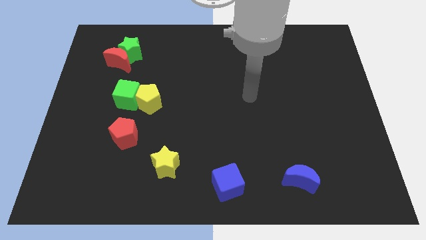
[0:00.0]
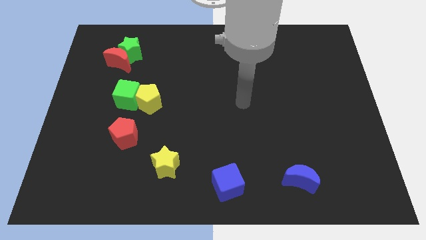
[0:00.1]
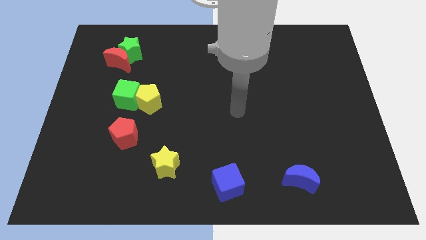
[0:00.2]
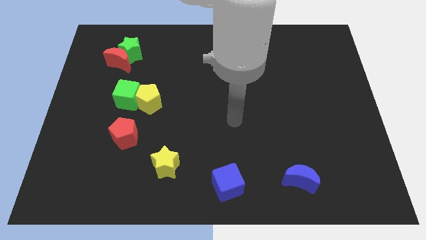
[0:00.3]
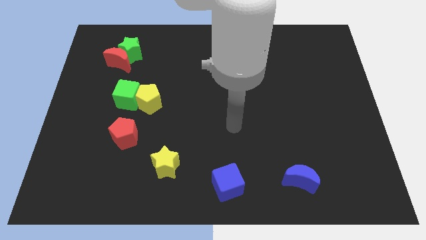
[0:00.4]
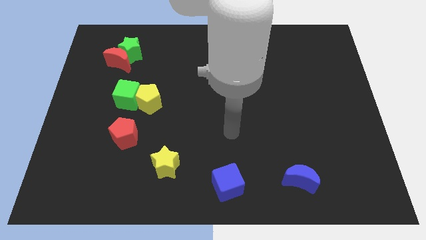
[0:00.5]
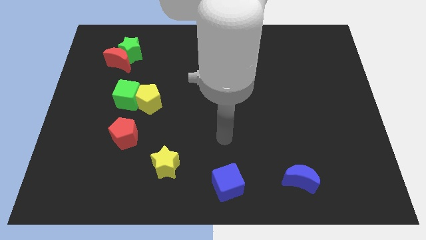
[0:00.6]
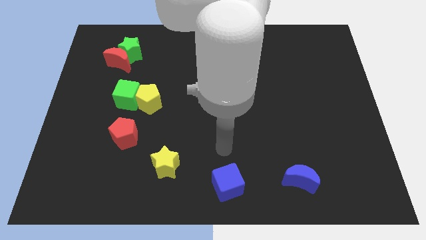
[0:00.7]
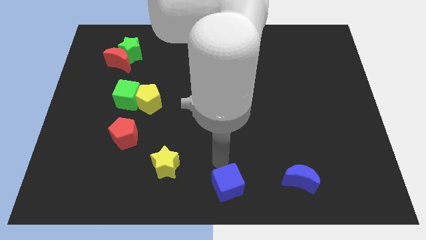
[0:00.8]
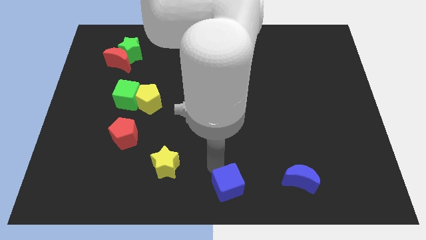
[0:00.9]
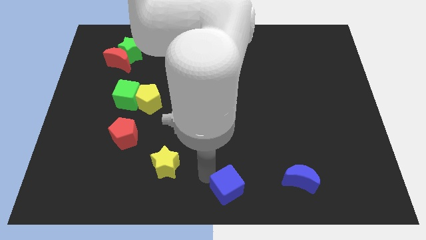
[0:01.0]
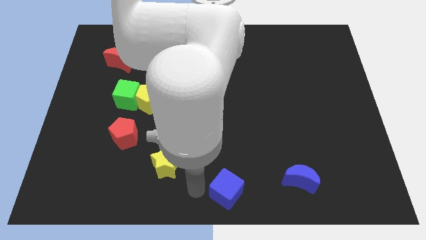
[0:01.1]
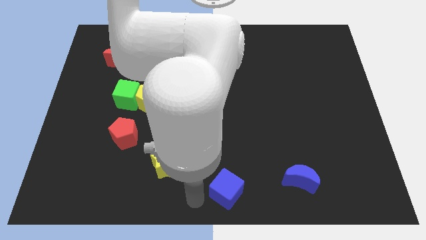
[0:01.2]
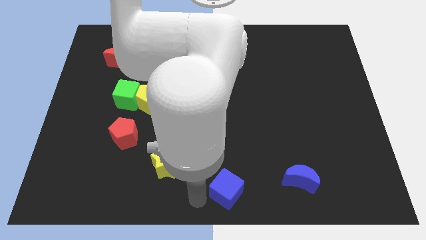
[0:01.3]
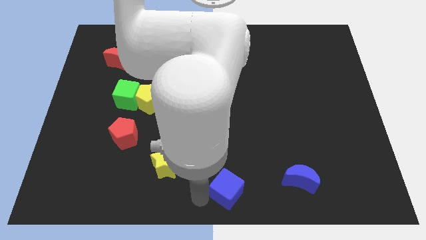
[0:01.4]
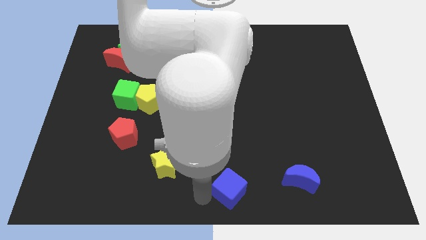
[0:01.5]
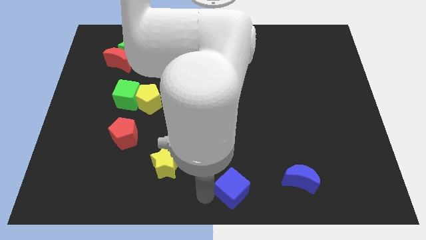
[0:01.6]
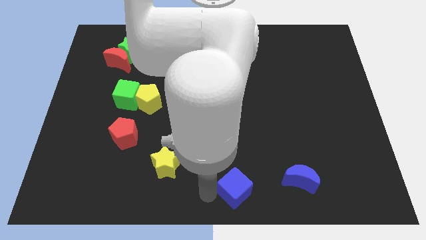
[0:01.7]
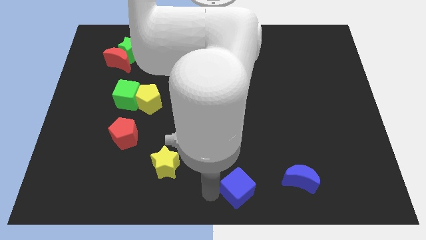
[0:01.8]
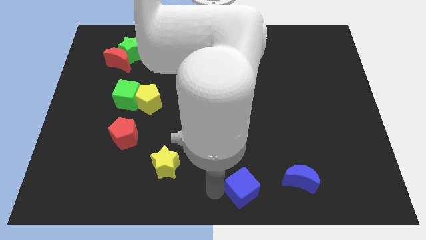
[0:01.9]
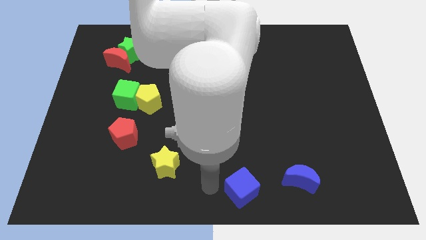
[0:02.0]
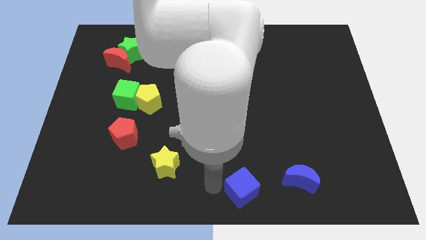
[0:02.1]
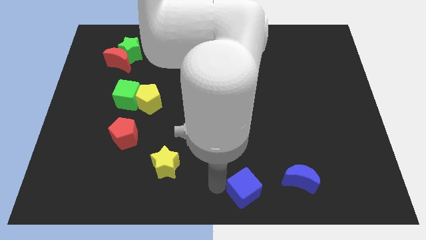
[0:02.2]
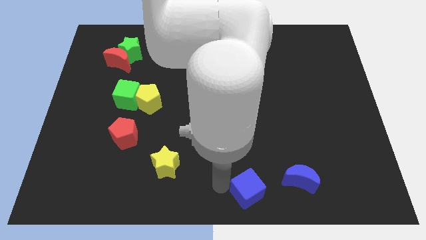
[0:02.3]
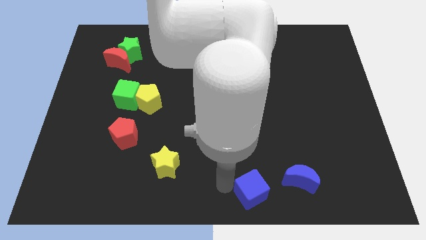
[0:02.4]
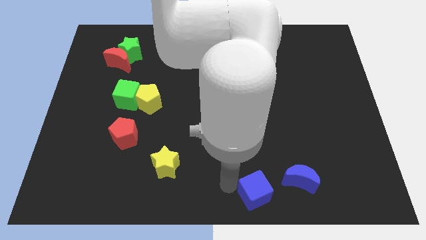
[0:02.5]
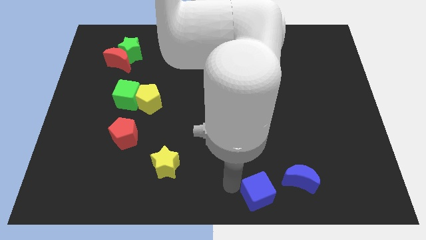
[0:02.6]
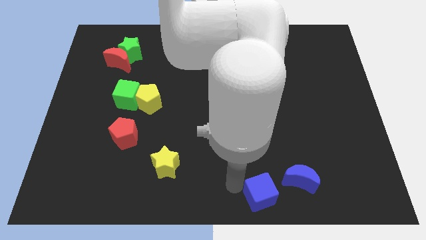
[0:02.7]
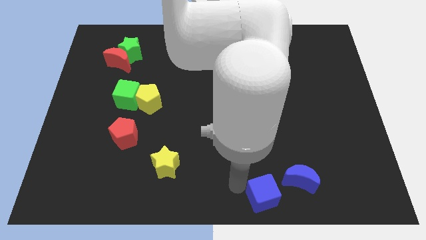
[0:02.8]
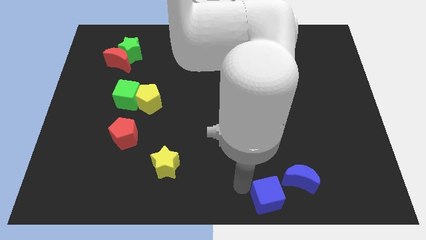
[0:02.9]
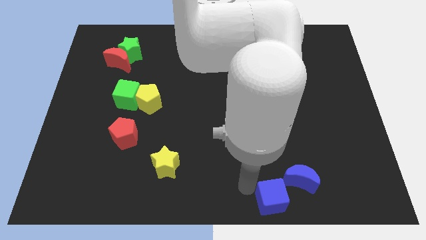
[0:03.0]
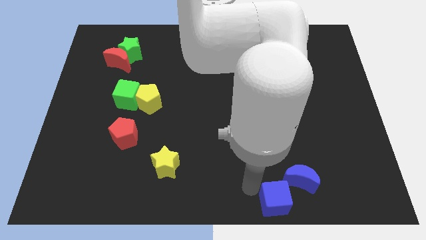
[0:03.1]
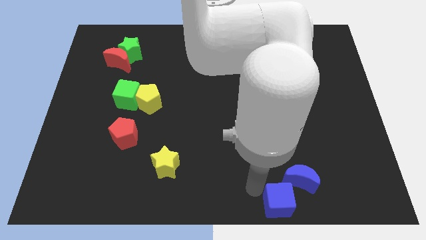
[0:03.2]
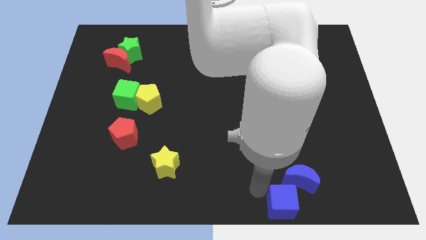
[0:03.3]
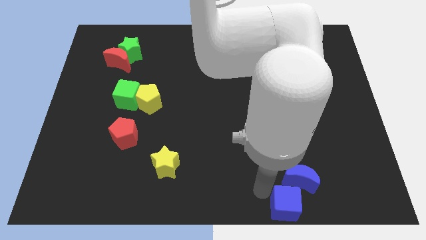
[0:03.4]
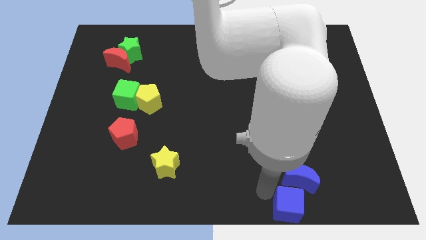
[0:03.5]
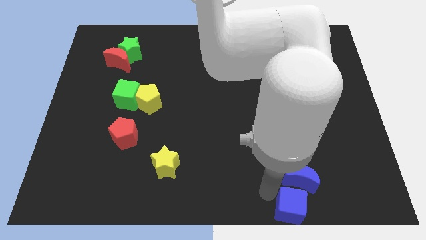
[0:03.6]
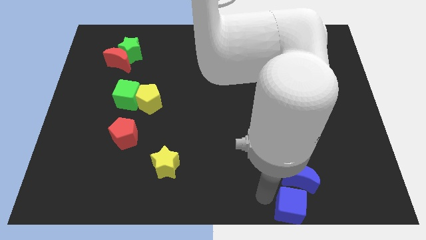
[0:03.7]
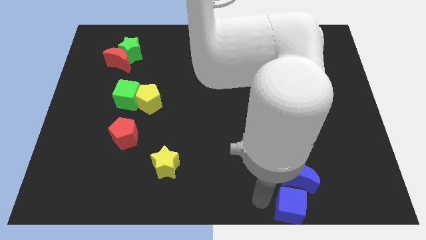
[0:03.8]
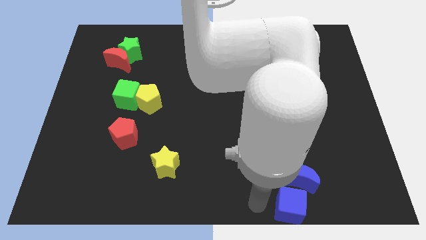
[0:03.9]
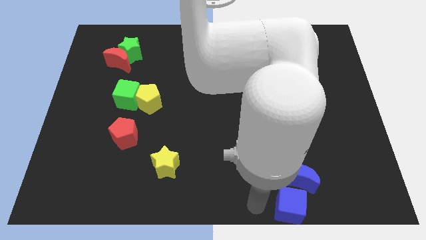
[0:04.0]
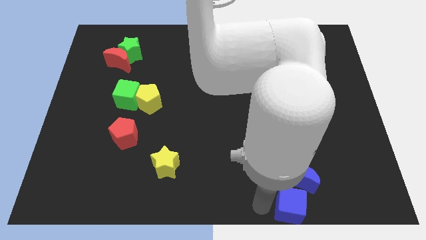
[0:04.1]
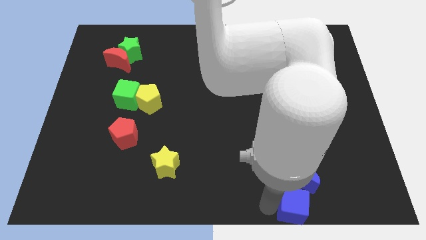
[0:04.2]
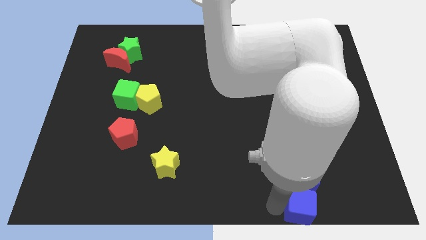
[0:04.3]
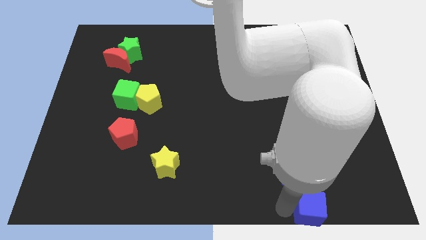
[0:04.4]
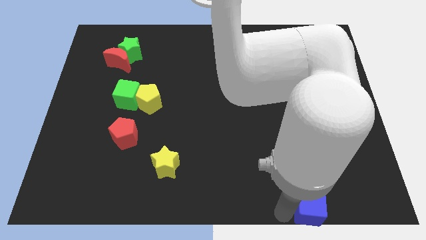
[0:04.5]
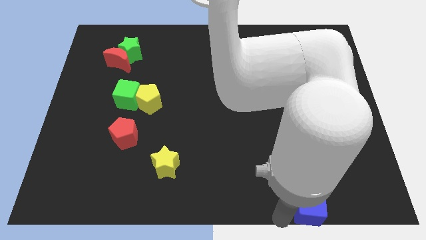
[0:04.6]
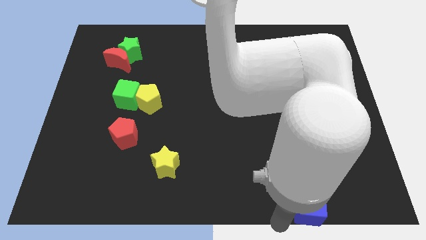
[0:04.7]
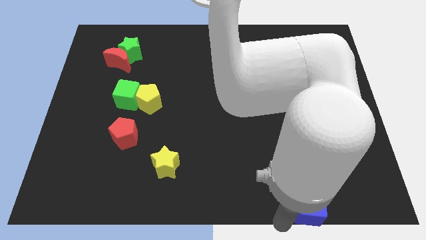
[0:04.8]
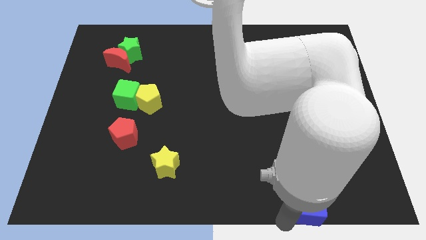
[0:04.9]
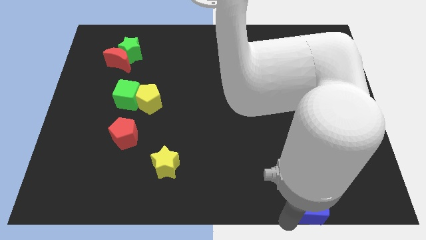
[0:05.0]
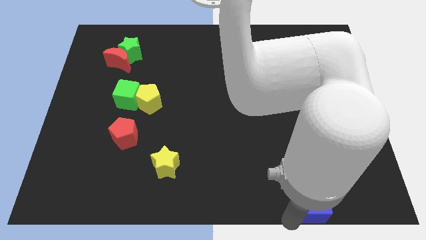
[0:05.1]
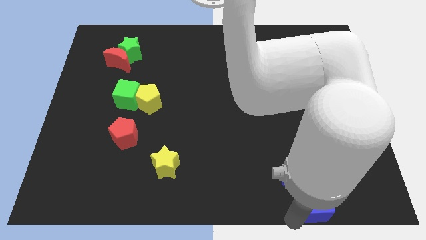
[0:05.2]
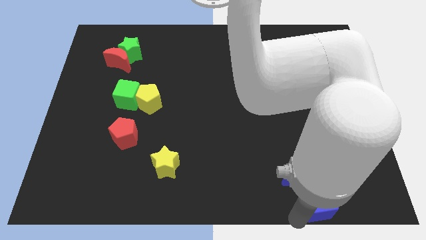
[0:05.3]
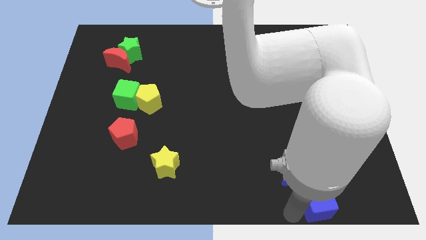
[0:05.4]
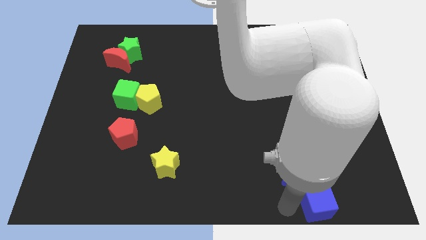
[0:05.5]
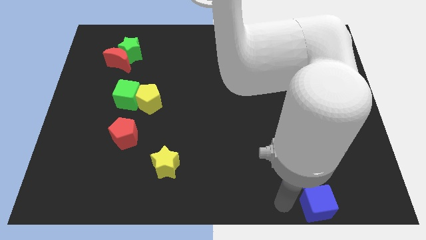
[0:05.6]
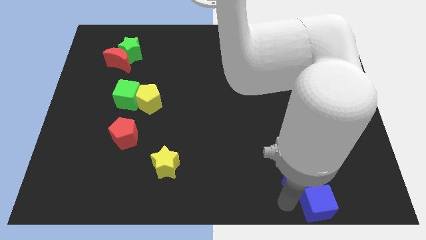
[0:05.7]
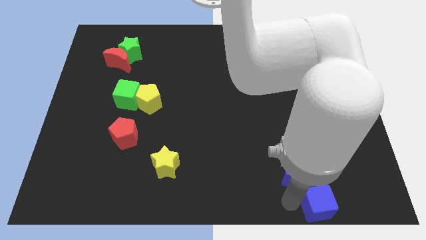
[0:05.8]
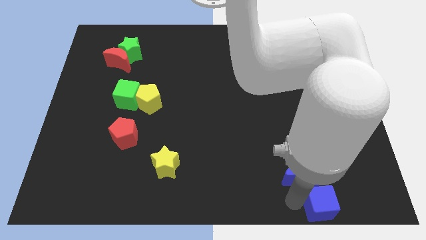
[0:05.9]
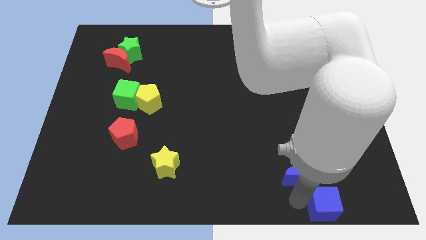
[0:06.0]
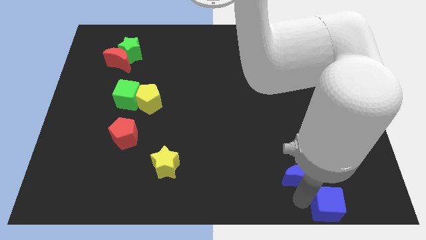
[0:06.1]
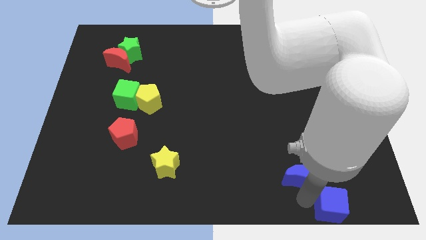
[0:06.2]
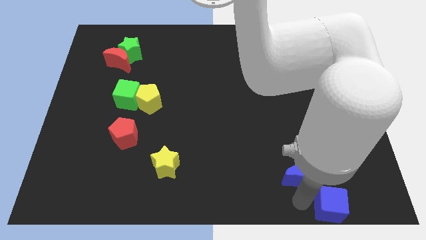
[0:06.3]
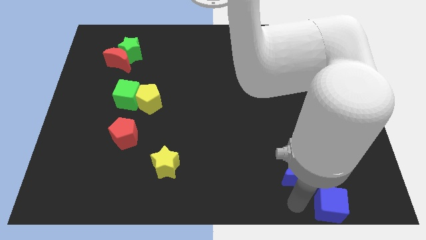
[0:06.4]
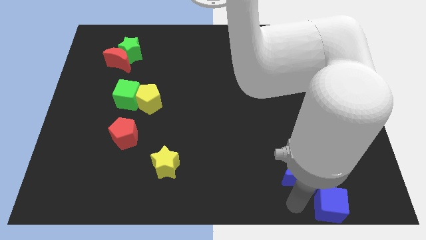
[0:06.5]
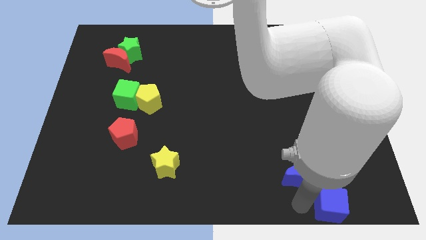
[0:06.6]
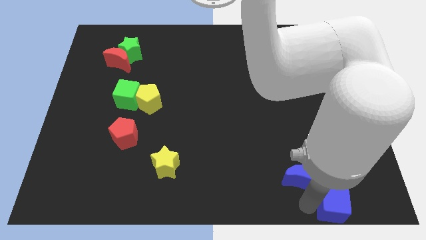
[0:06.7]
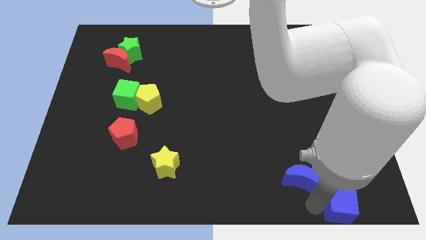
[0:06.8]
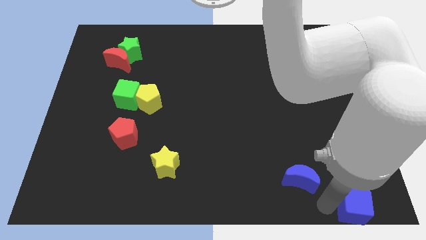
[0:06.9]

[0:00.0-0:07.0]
move the blue cube to the bottom right corner
